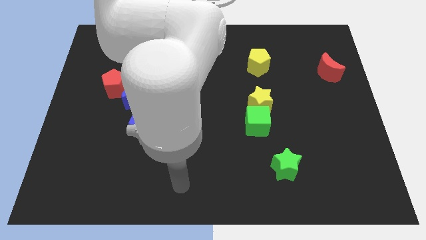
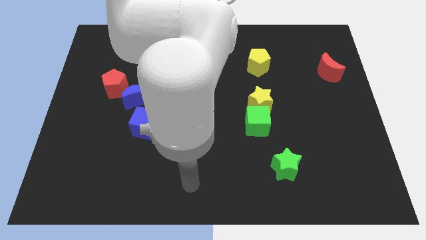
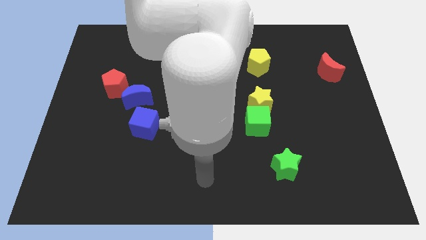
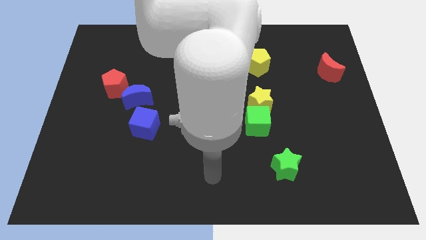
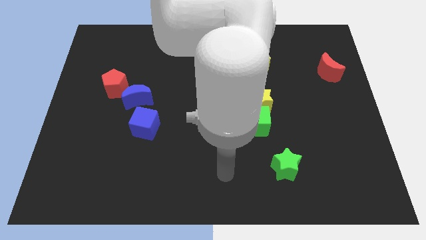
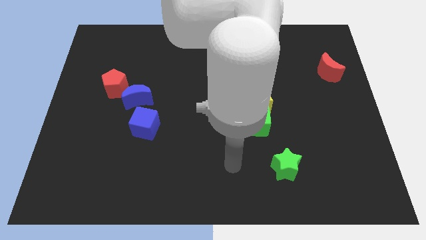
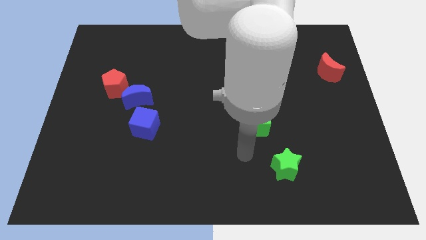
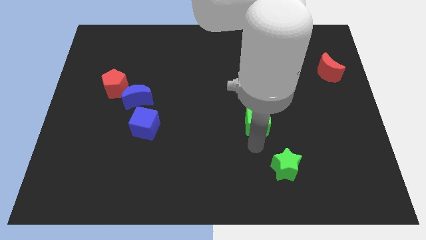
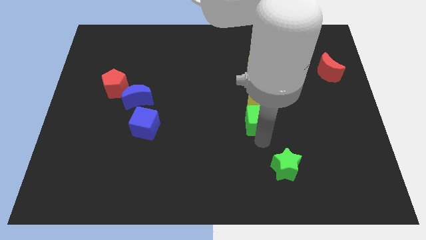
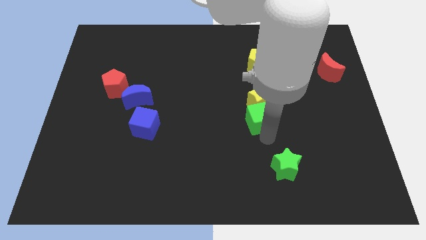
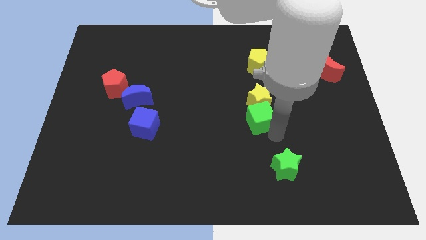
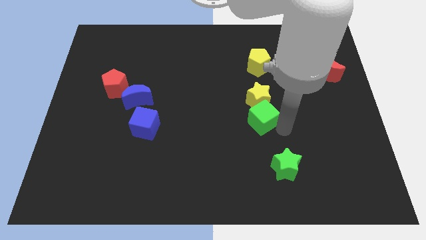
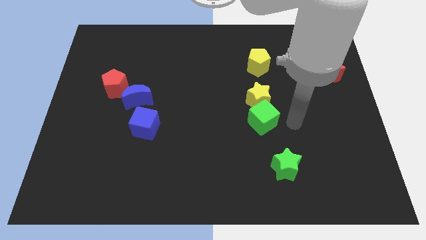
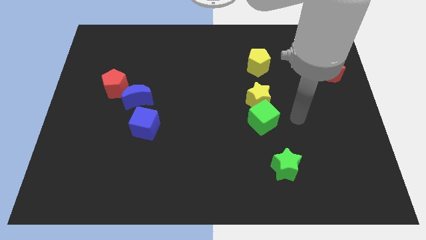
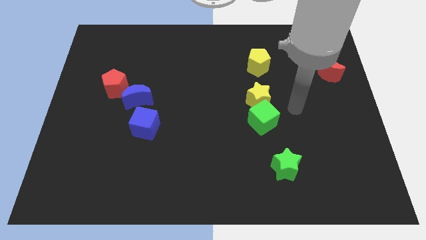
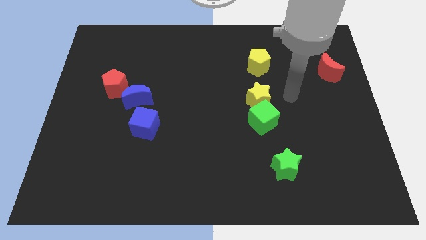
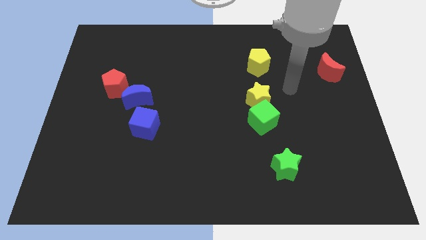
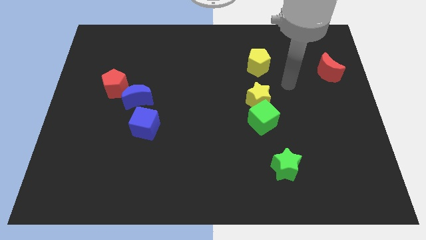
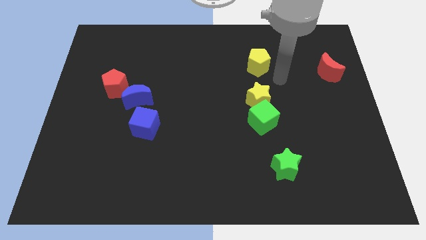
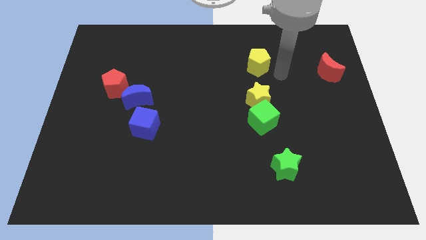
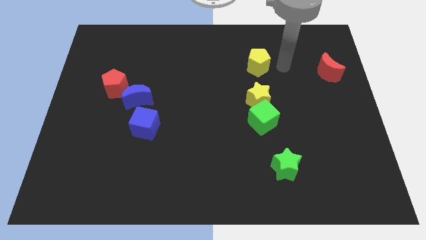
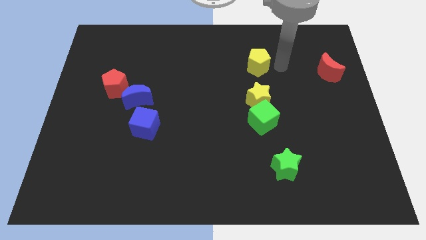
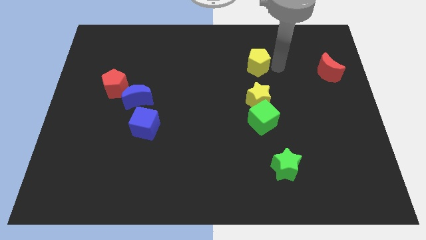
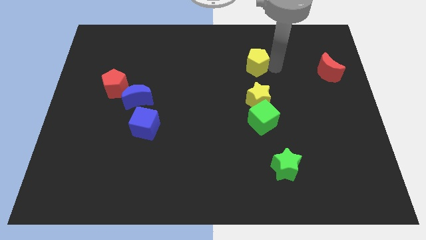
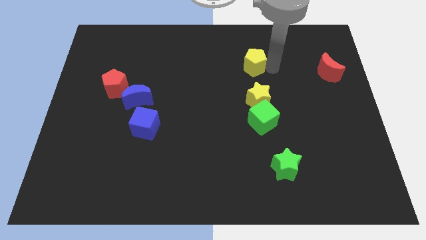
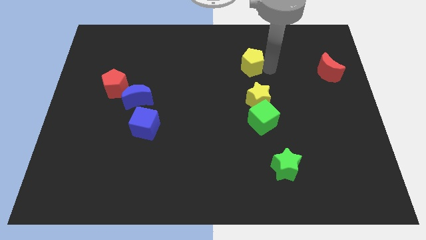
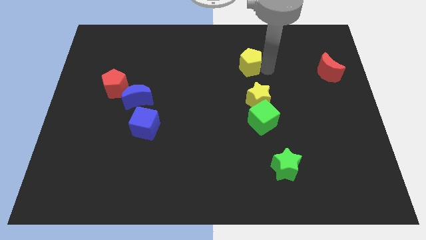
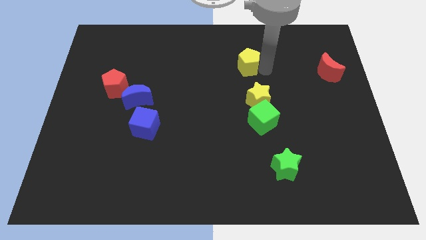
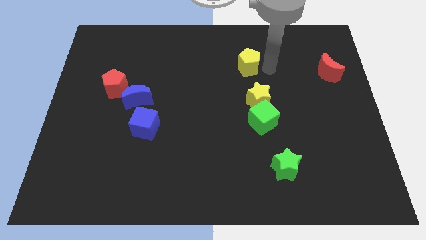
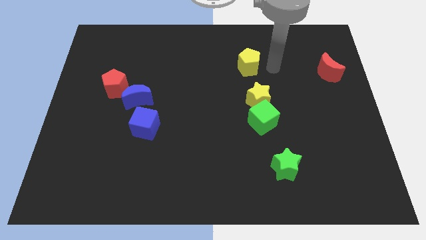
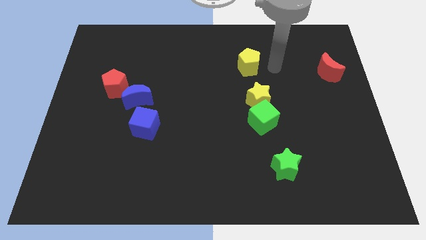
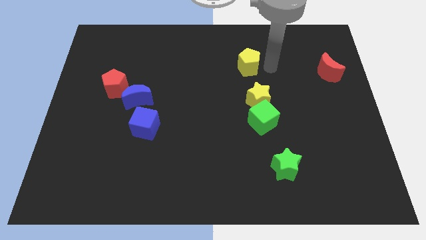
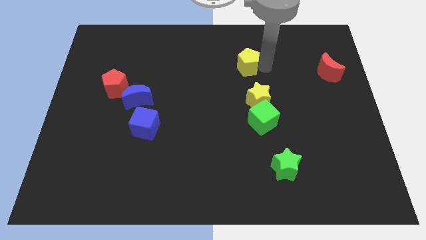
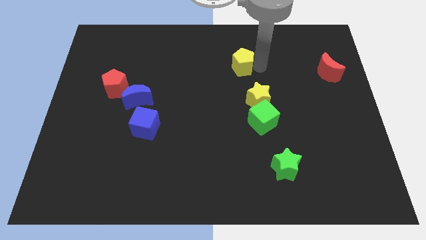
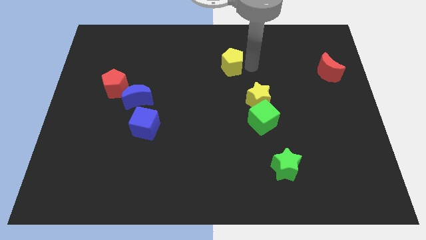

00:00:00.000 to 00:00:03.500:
slightly move the yellow pentagon to the left

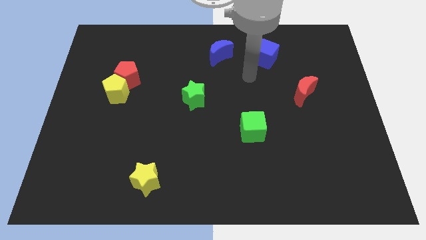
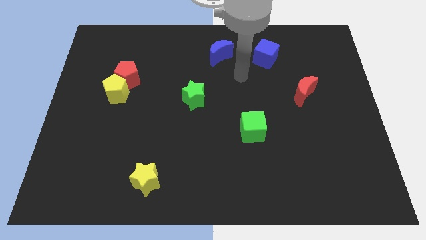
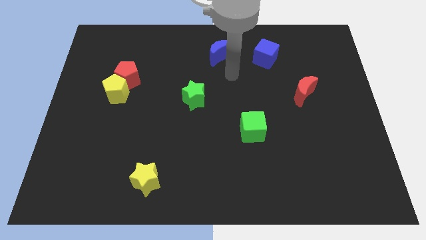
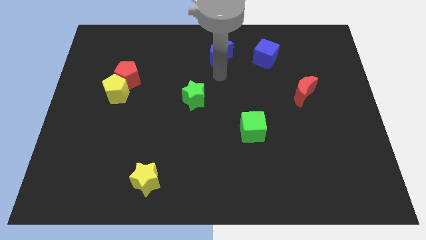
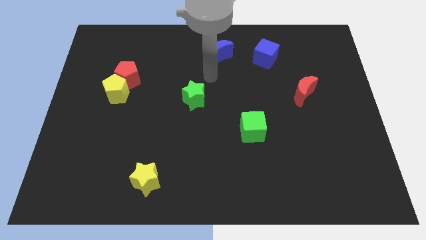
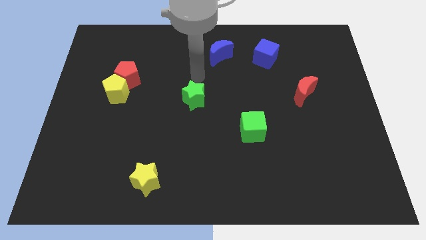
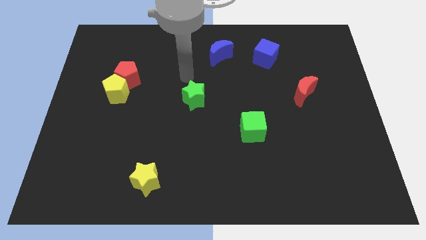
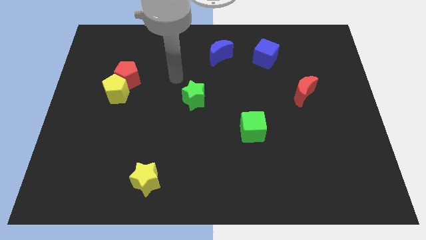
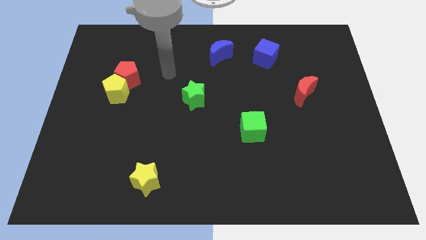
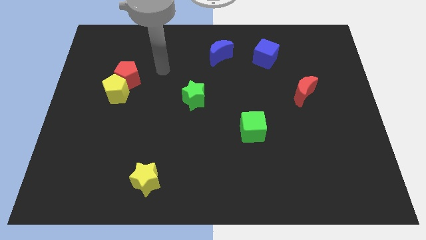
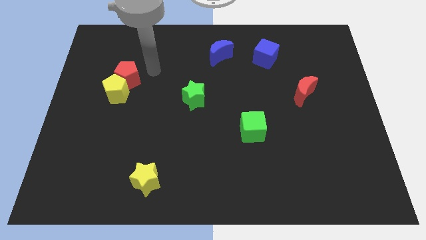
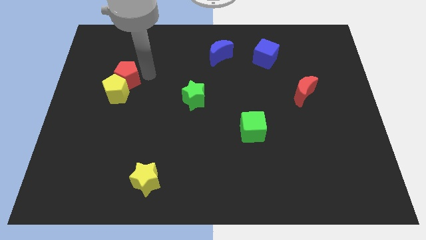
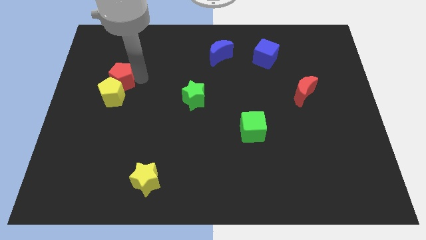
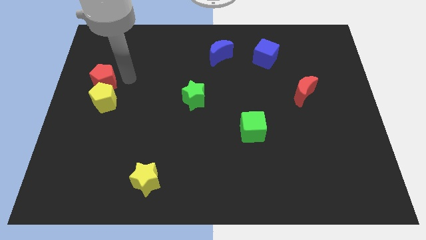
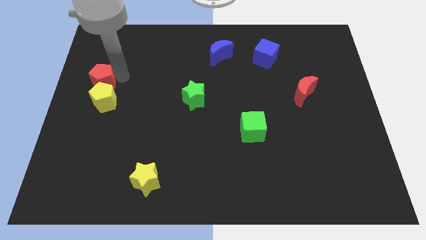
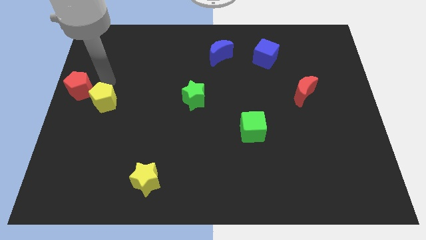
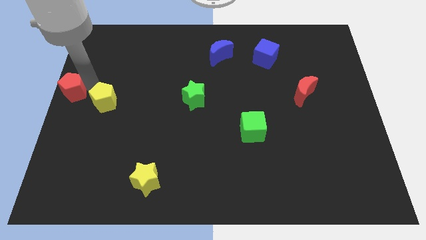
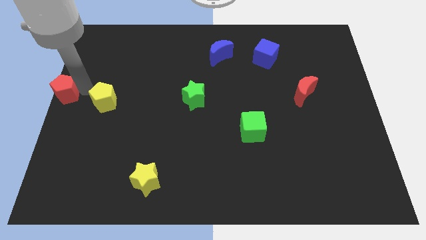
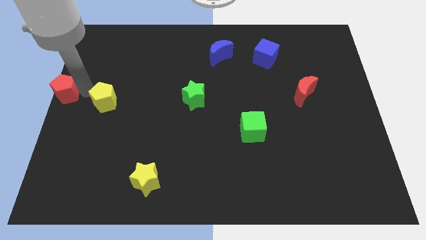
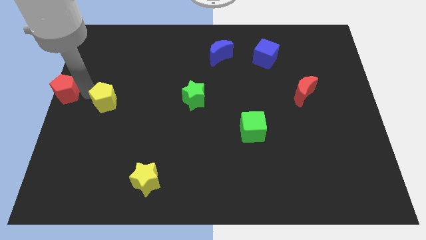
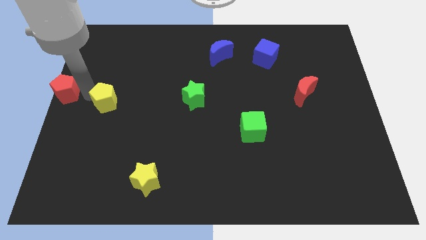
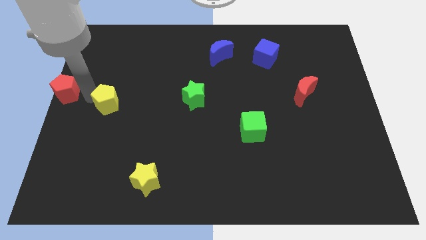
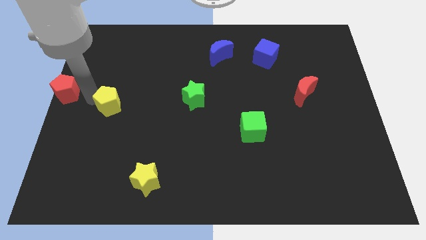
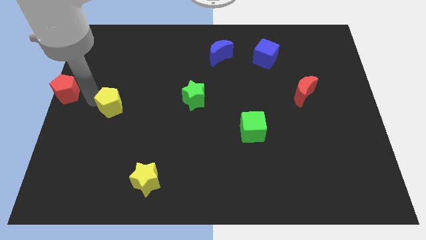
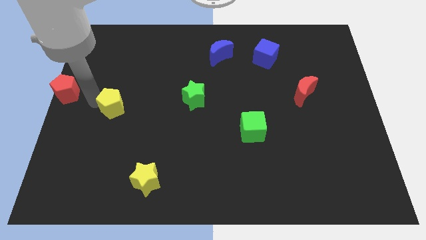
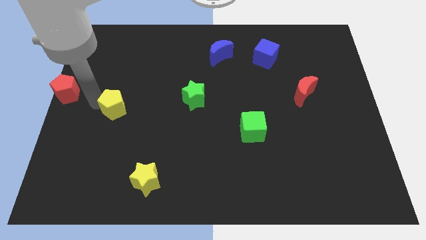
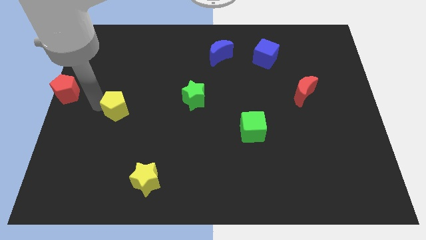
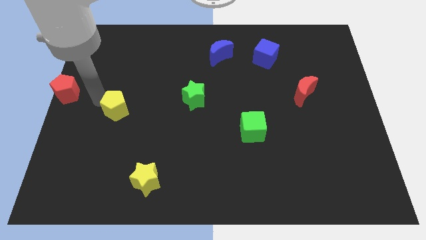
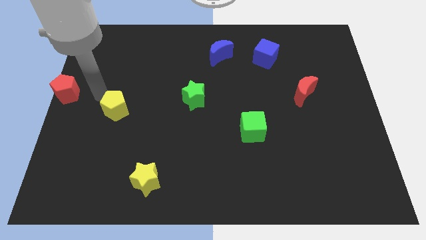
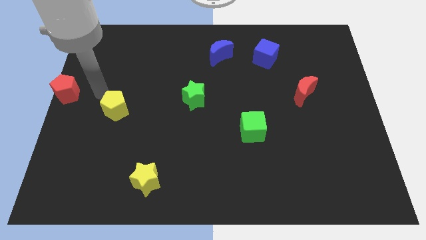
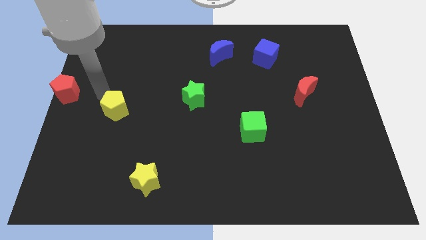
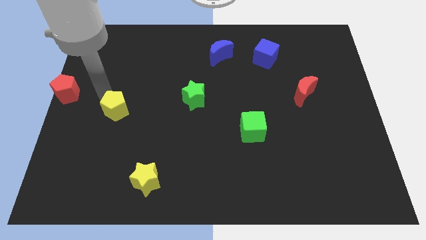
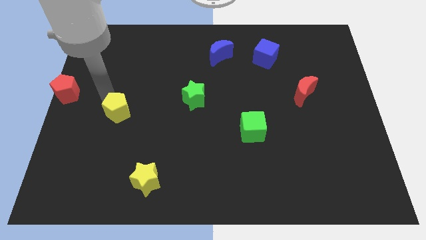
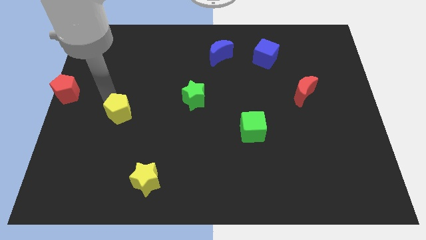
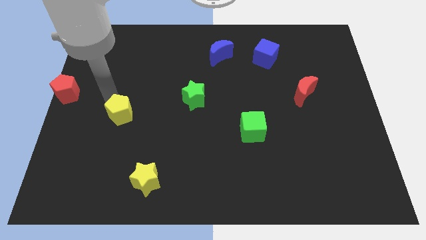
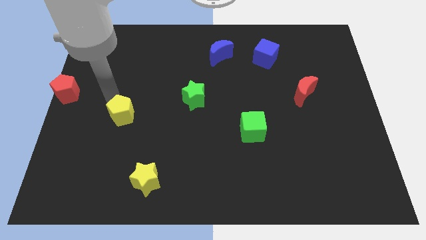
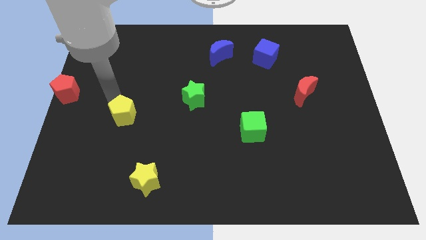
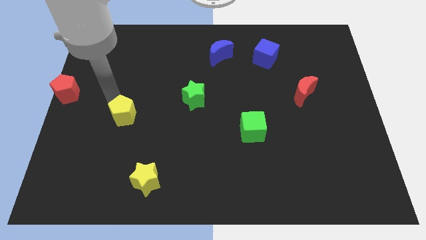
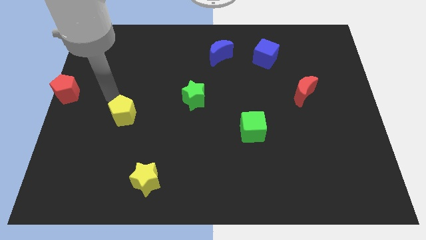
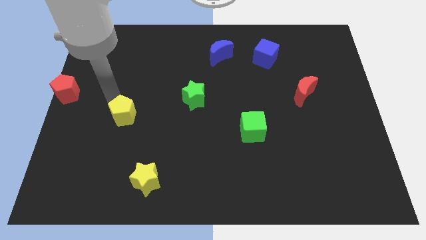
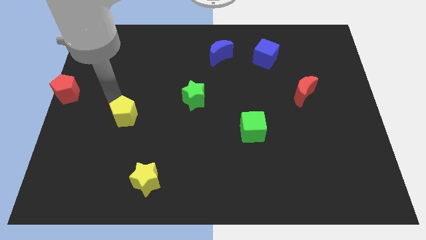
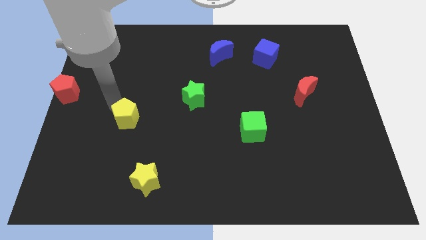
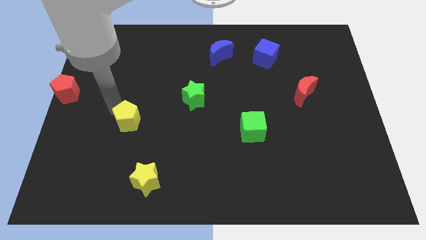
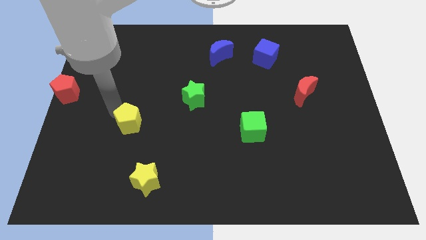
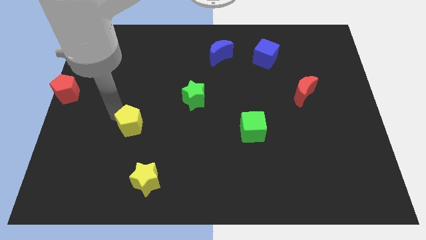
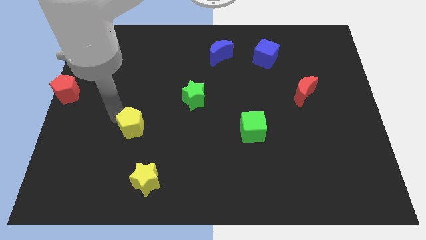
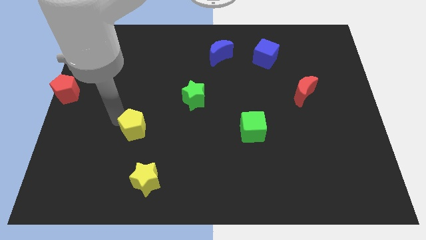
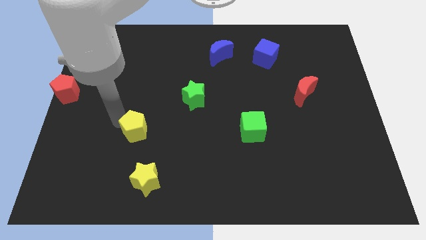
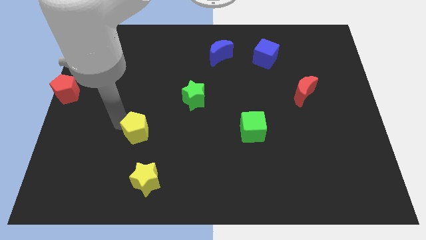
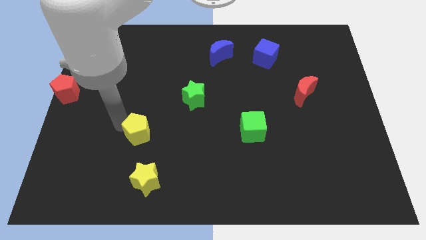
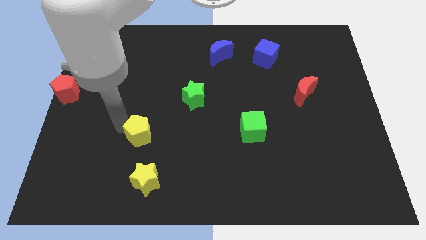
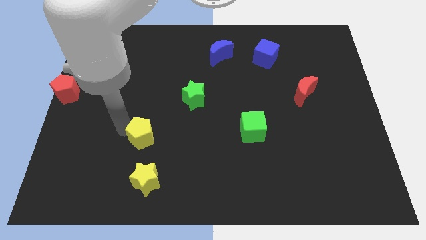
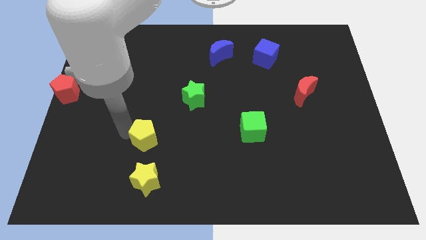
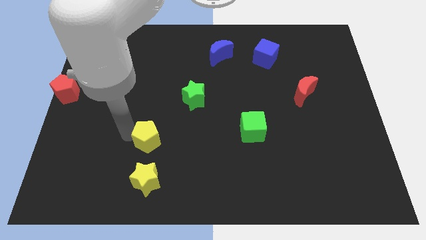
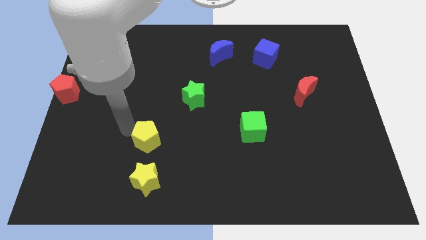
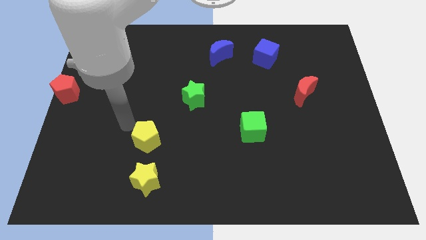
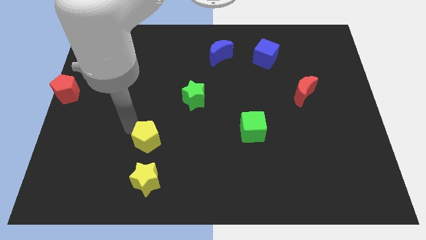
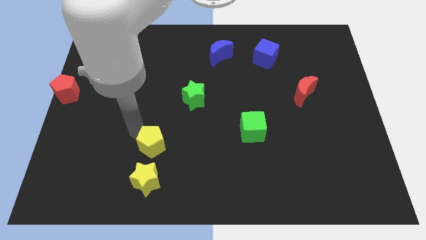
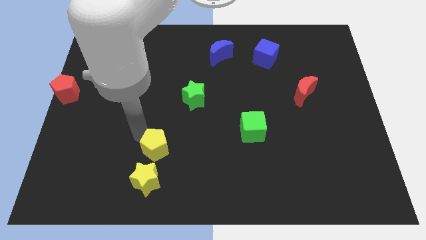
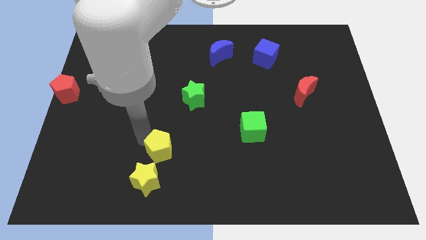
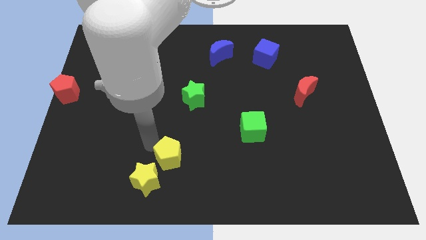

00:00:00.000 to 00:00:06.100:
push the yellow pentagon downwards and right
